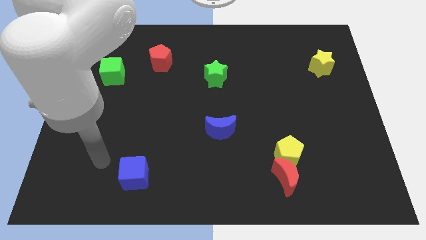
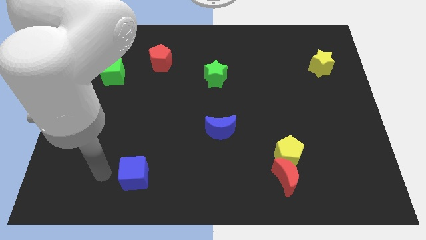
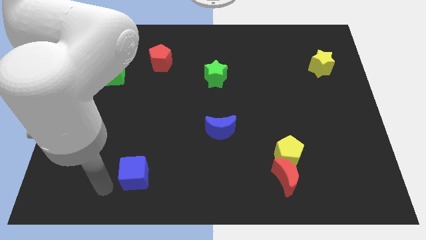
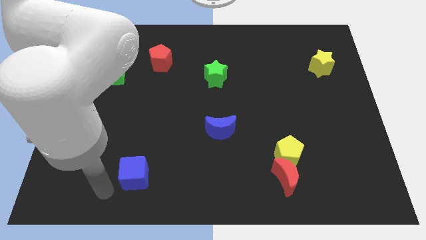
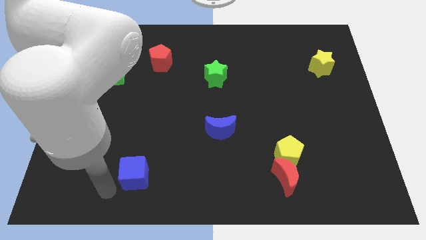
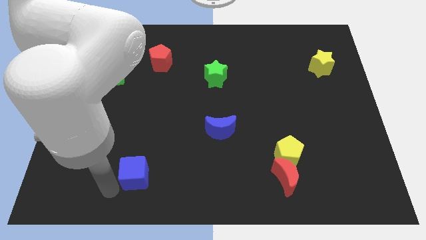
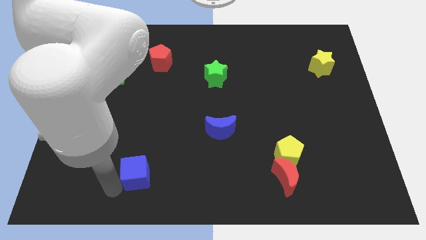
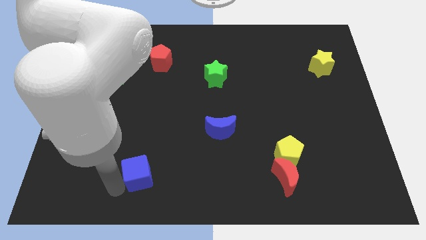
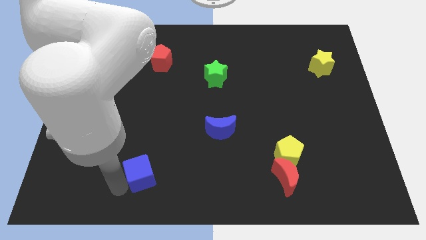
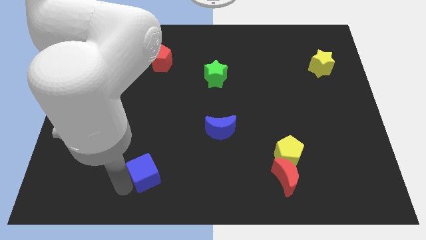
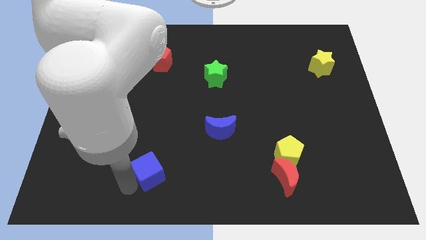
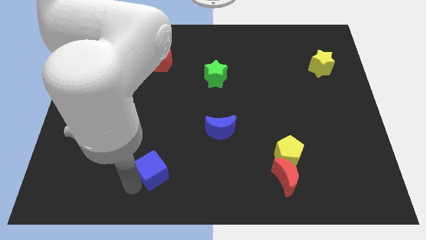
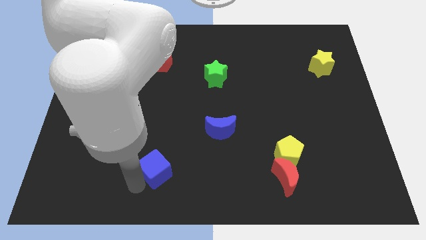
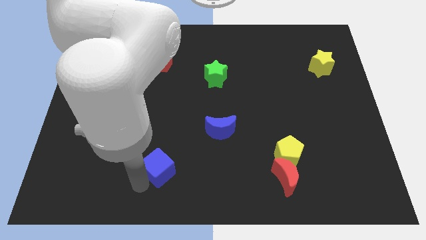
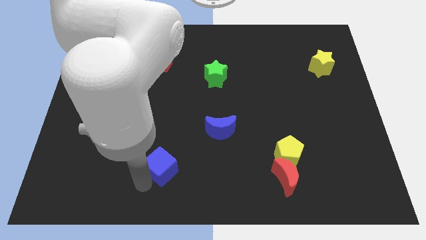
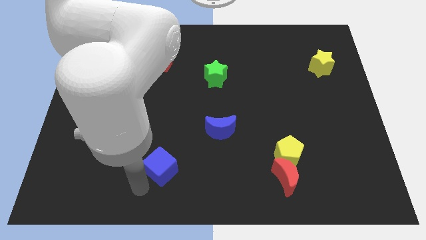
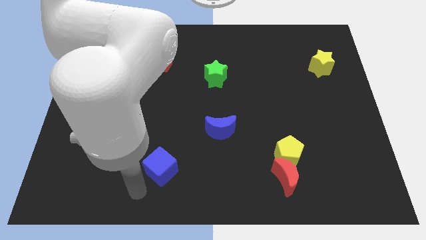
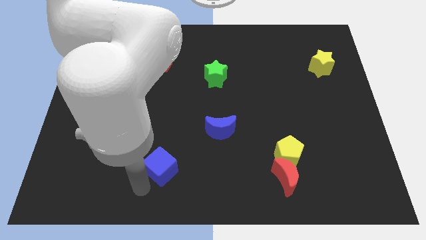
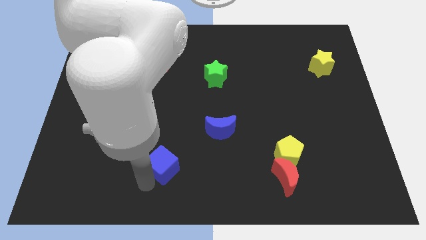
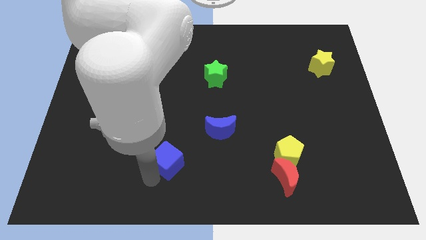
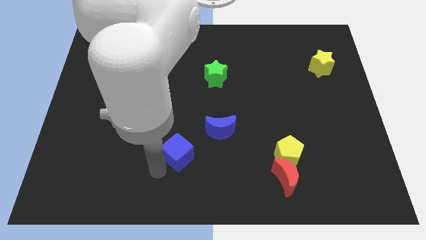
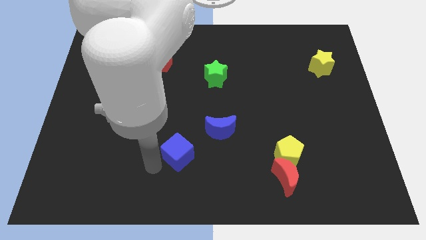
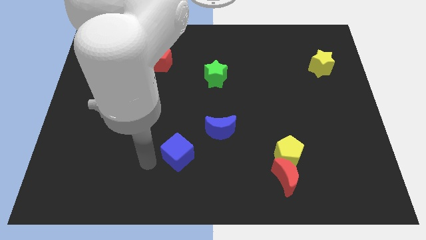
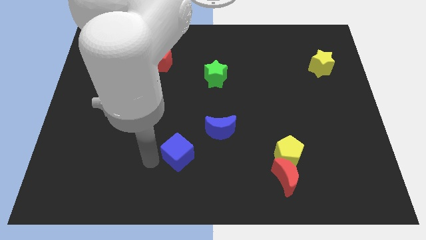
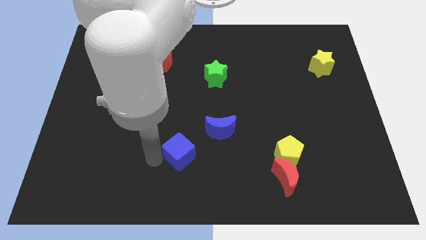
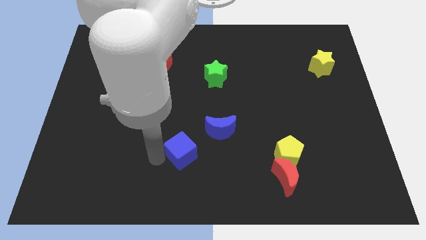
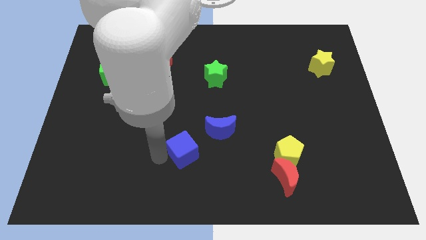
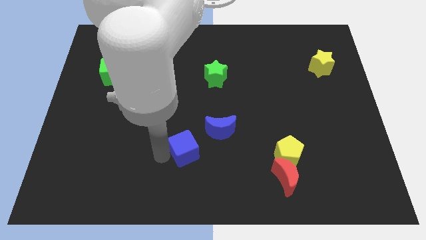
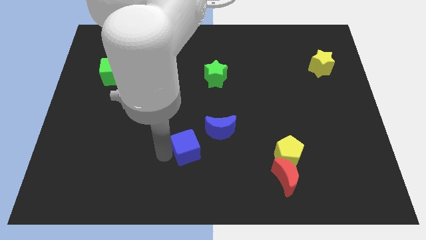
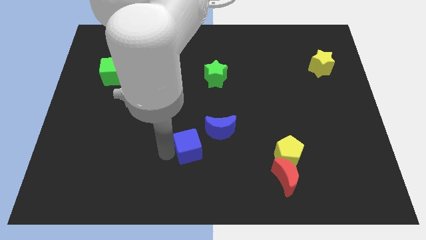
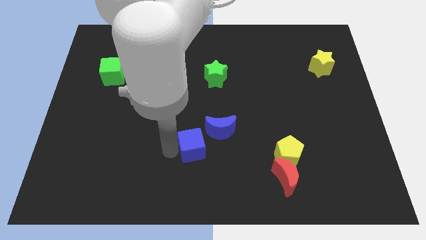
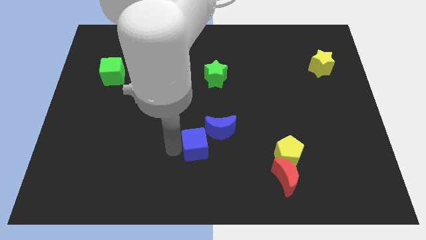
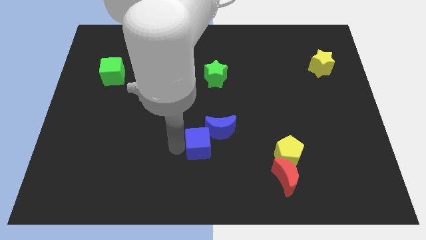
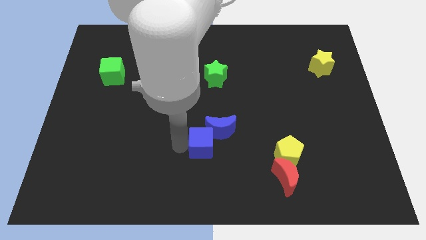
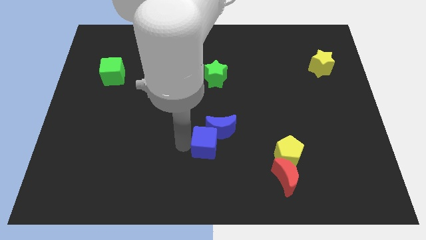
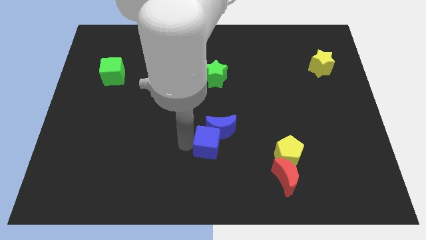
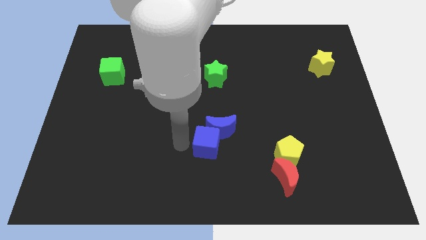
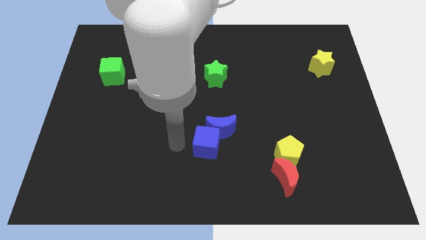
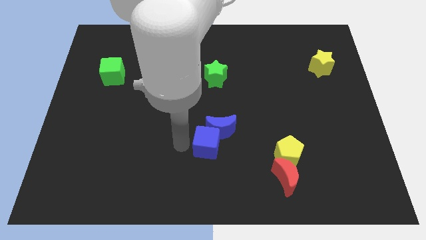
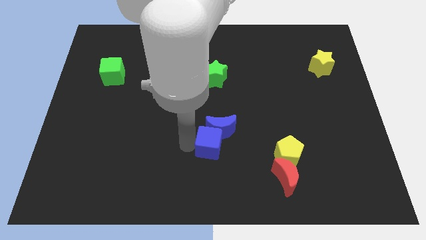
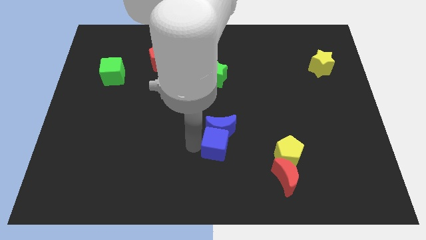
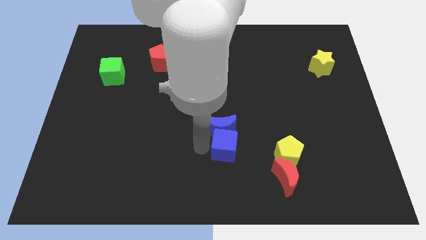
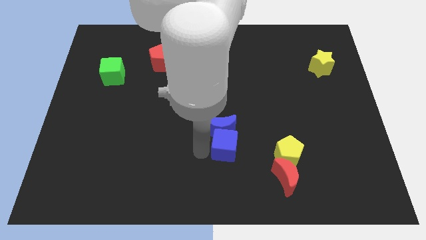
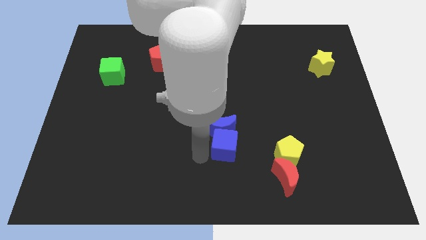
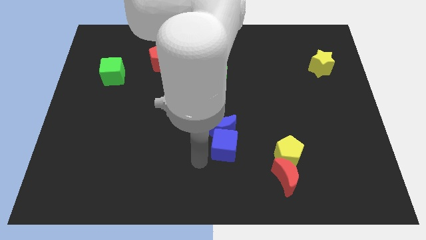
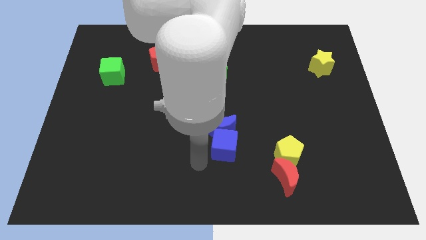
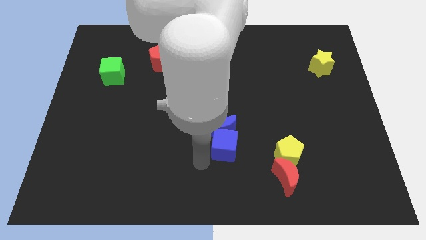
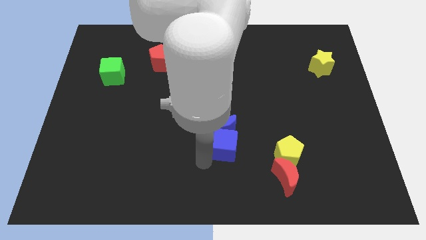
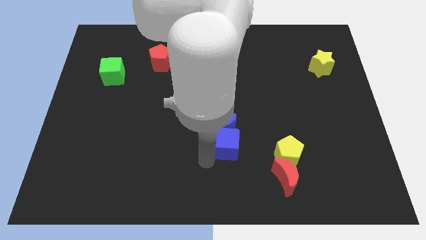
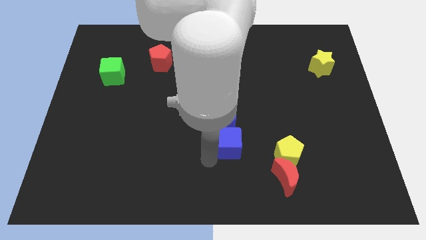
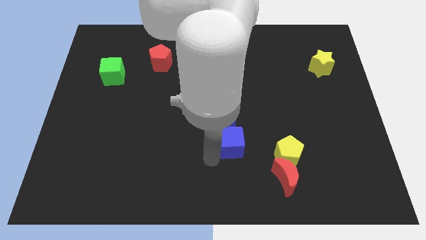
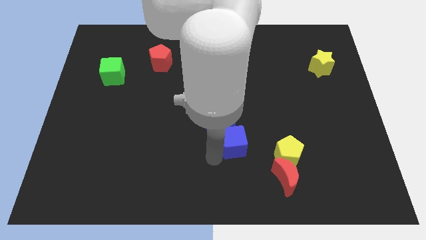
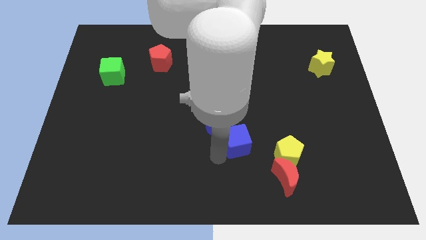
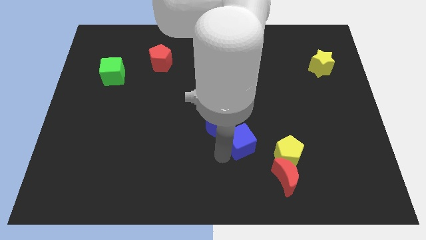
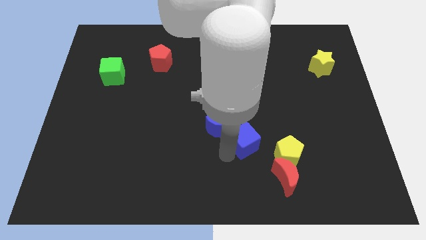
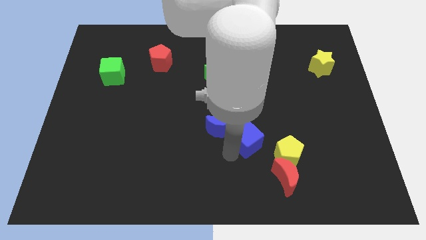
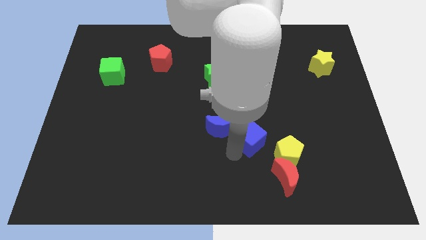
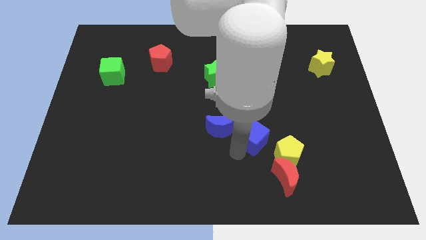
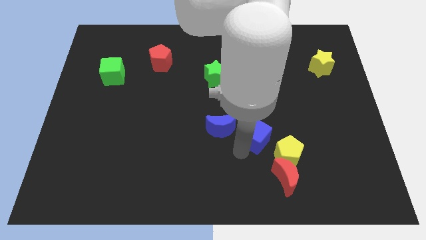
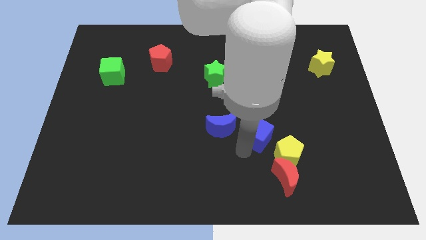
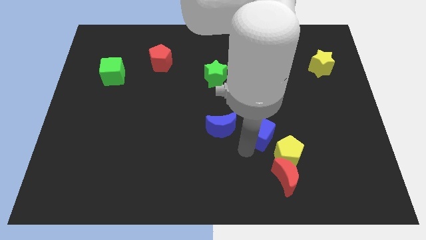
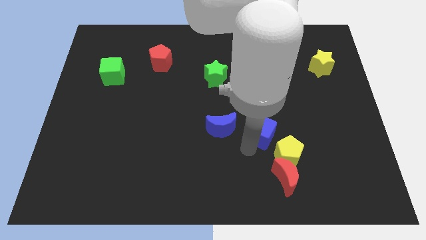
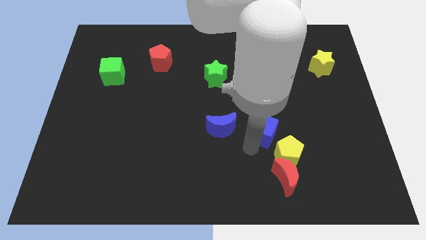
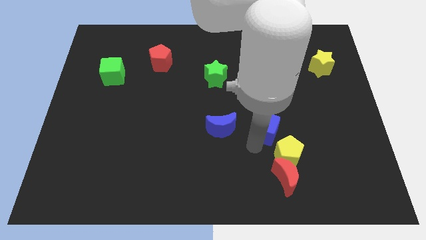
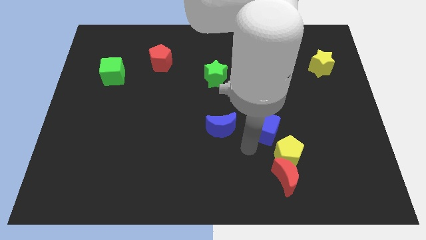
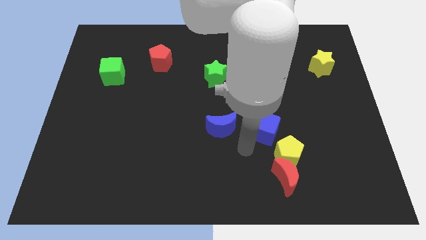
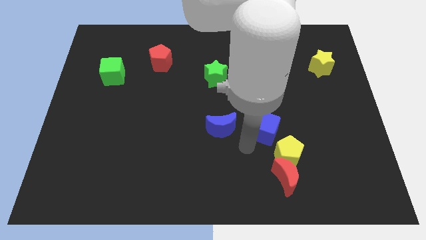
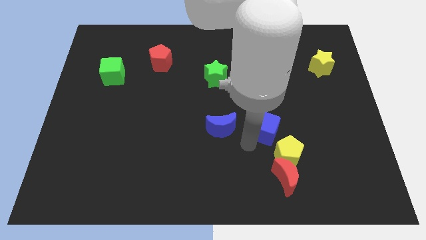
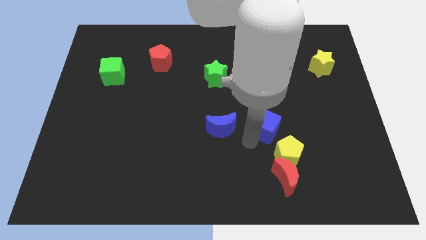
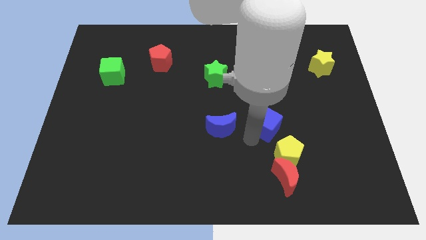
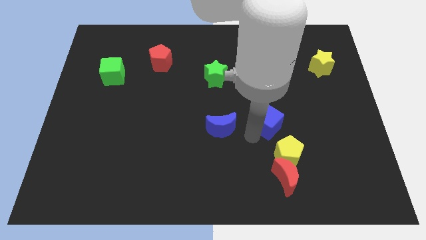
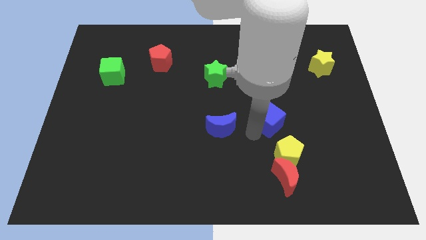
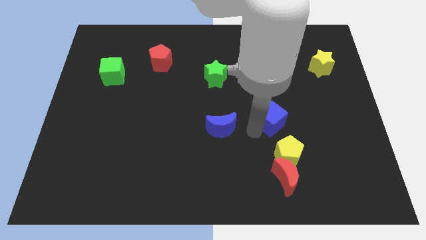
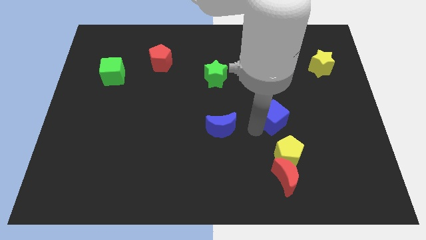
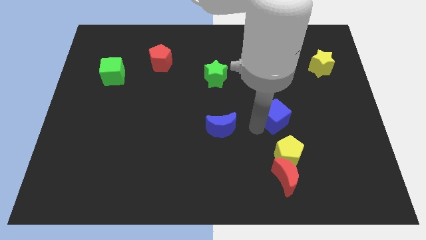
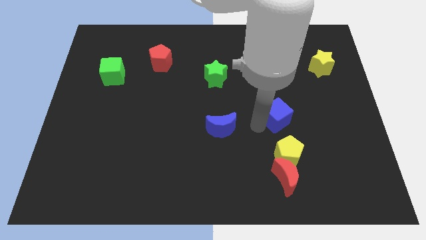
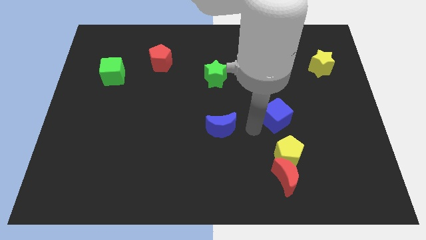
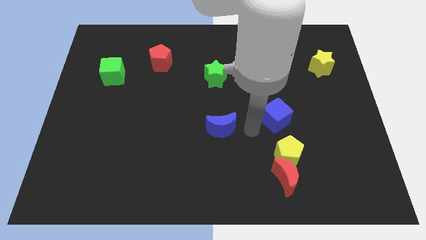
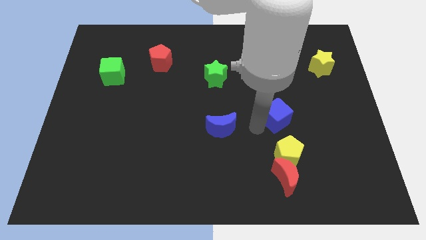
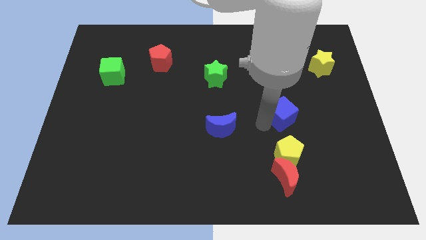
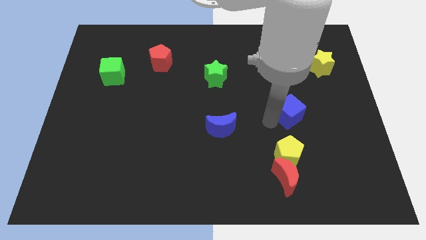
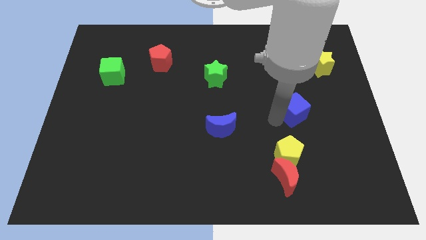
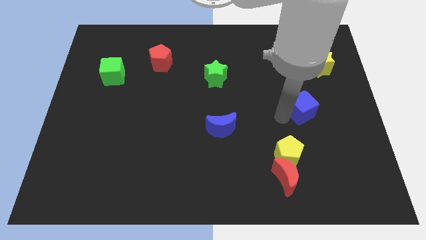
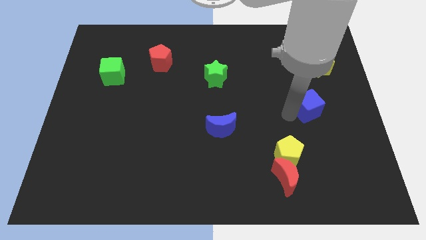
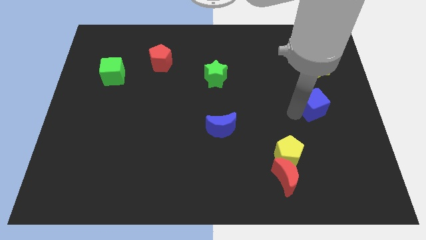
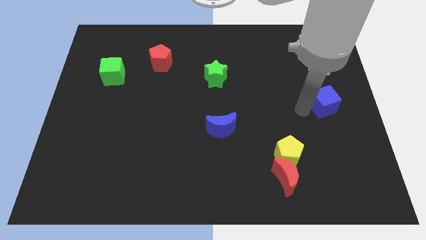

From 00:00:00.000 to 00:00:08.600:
push the blue cube to the right side
